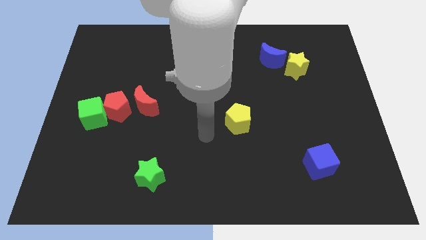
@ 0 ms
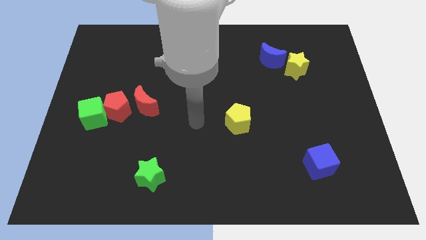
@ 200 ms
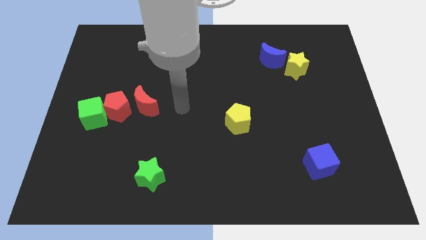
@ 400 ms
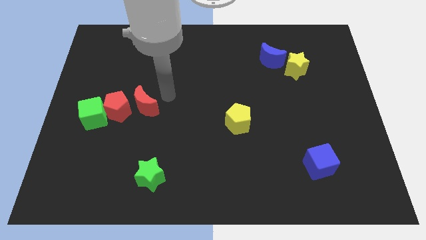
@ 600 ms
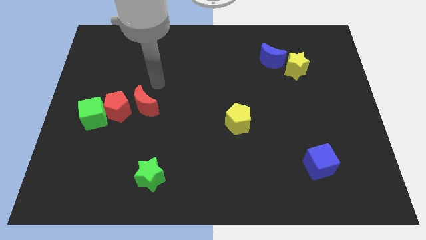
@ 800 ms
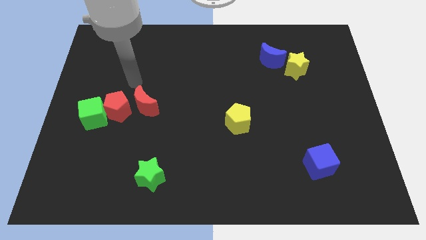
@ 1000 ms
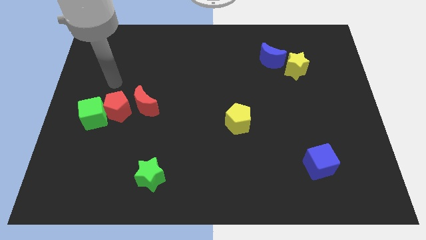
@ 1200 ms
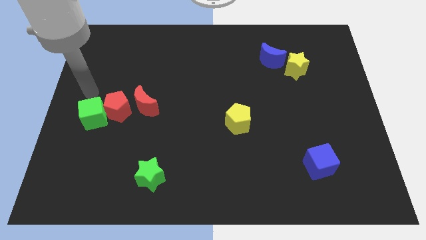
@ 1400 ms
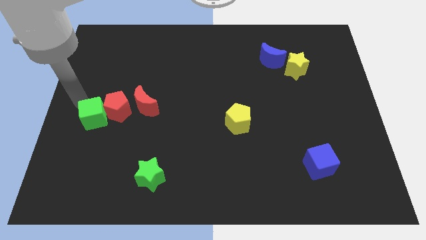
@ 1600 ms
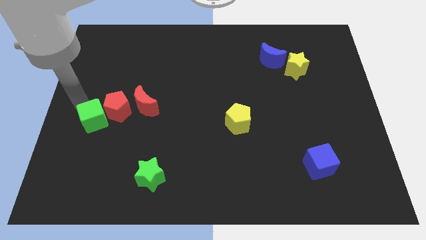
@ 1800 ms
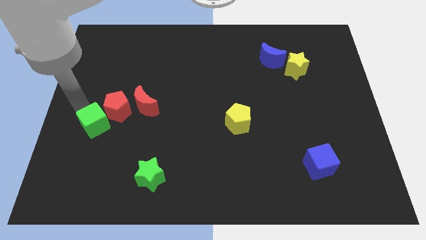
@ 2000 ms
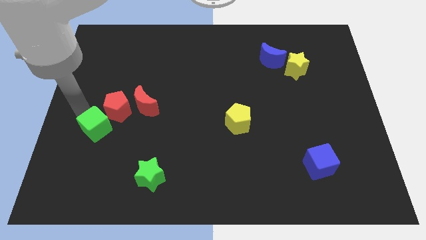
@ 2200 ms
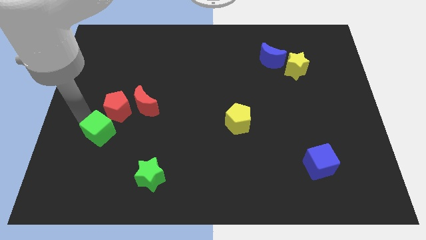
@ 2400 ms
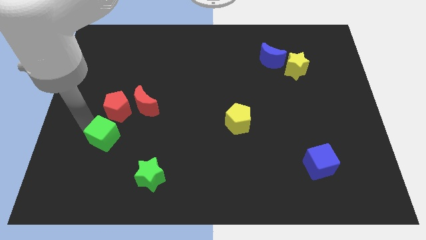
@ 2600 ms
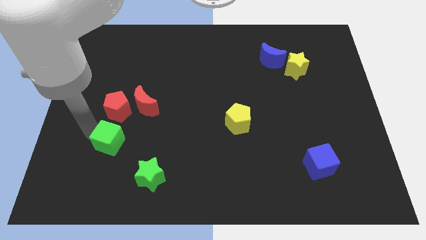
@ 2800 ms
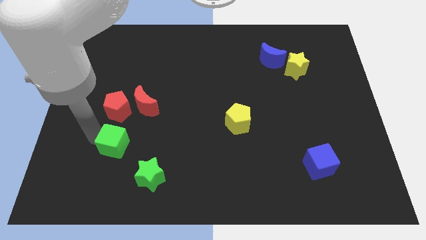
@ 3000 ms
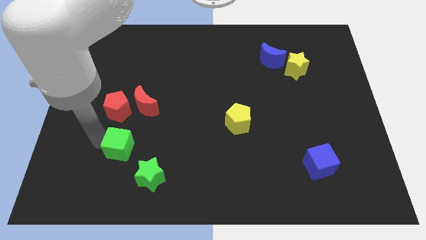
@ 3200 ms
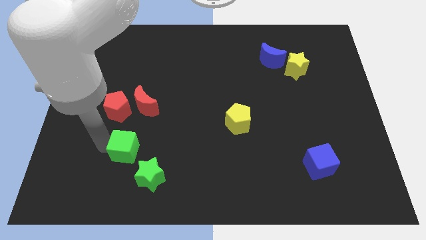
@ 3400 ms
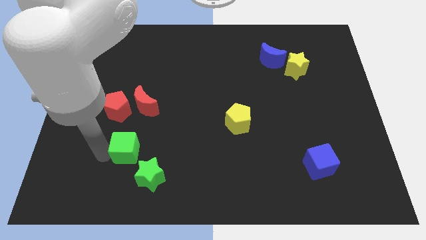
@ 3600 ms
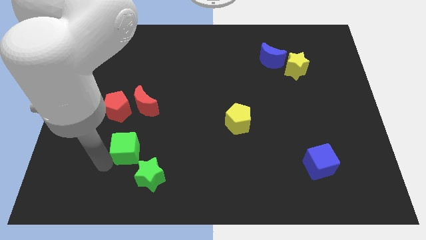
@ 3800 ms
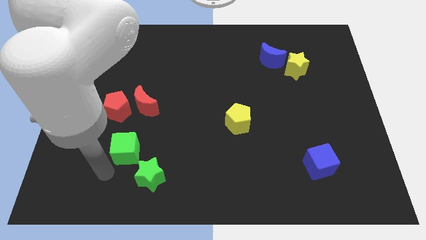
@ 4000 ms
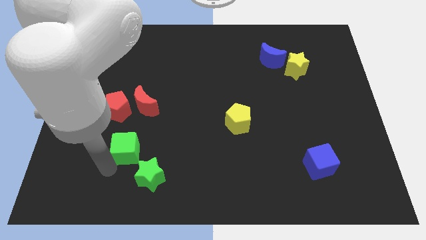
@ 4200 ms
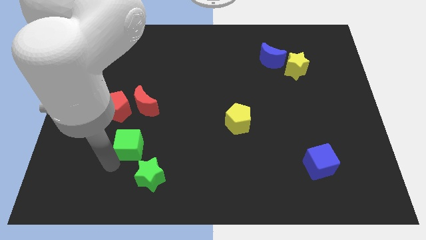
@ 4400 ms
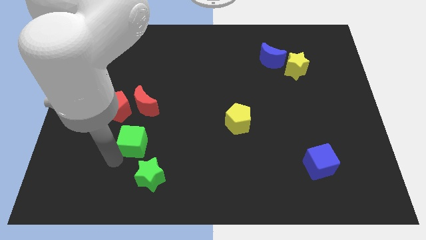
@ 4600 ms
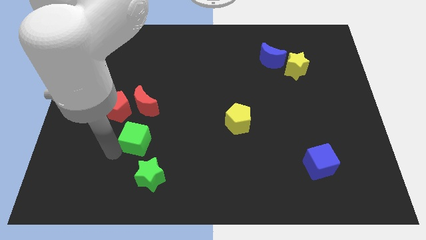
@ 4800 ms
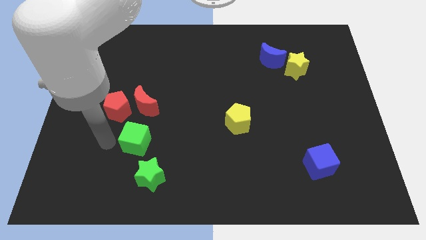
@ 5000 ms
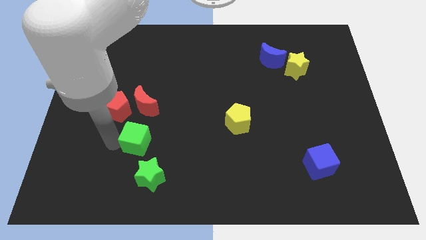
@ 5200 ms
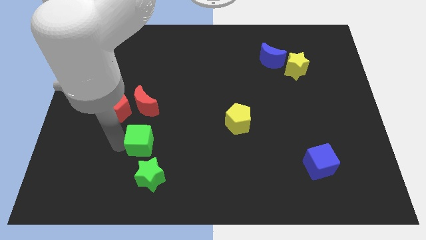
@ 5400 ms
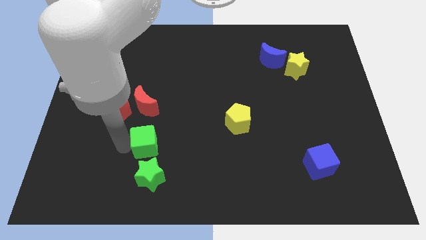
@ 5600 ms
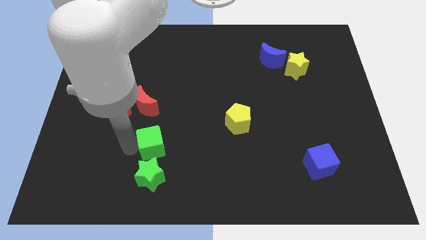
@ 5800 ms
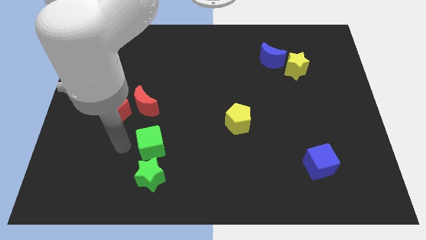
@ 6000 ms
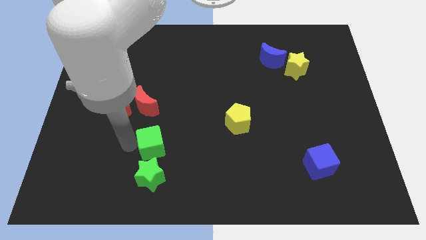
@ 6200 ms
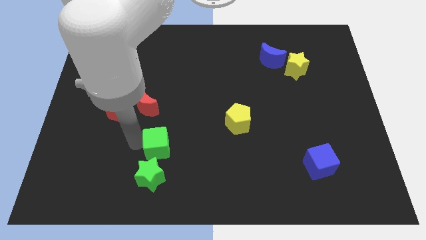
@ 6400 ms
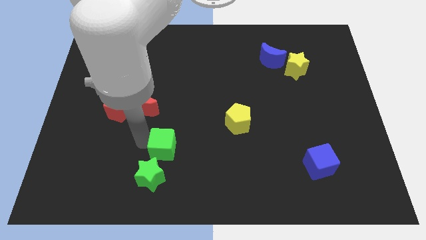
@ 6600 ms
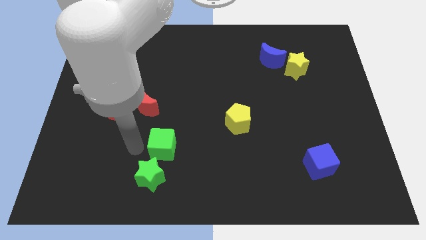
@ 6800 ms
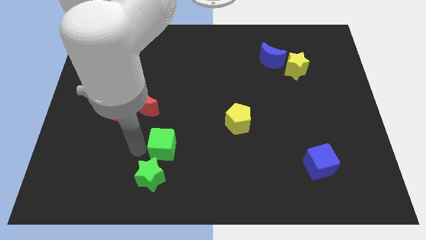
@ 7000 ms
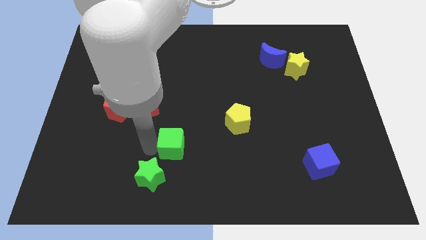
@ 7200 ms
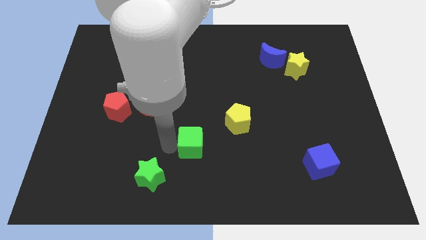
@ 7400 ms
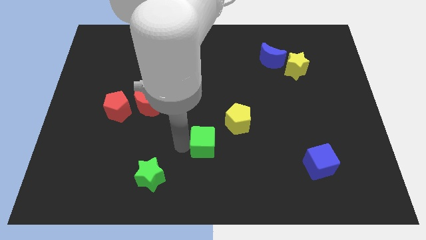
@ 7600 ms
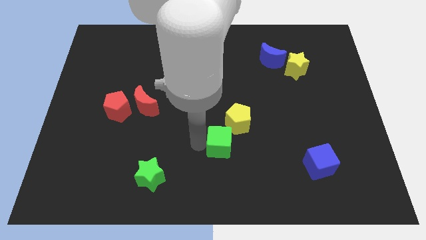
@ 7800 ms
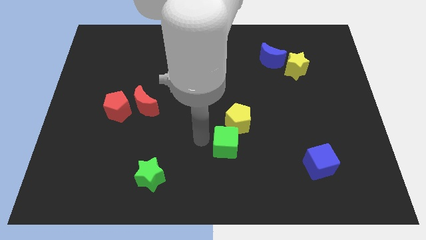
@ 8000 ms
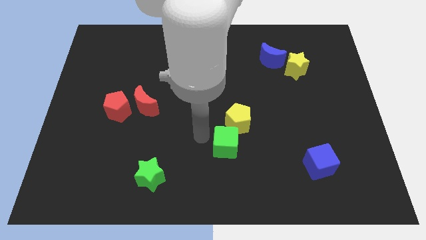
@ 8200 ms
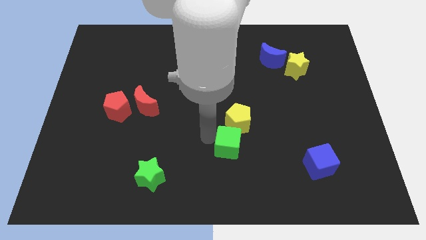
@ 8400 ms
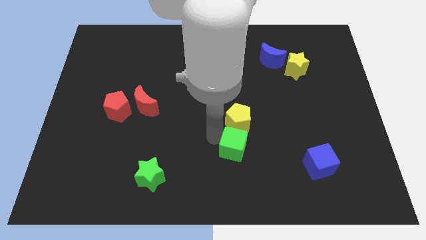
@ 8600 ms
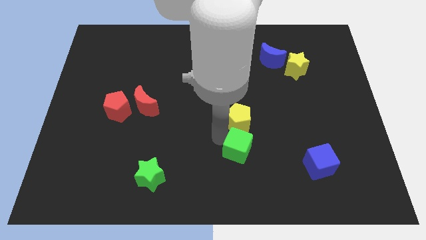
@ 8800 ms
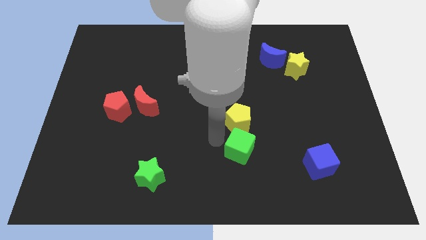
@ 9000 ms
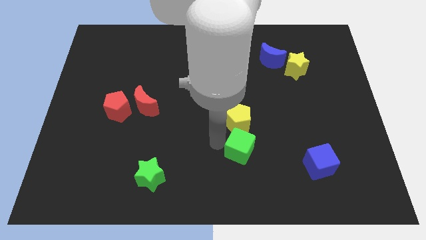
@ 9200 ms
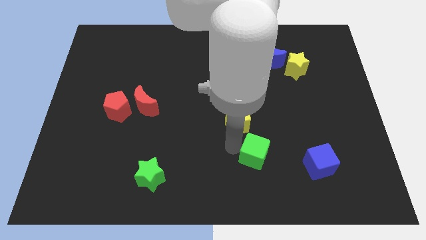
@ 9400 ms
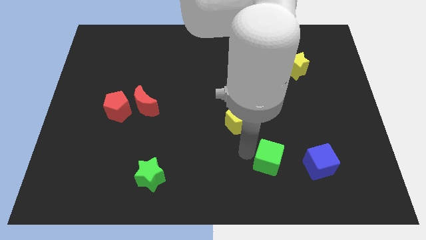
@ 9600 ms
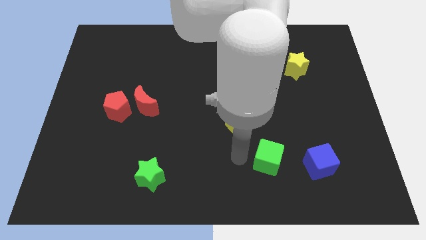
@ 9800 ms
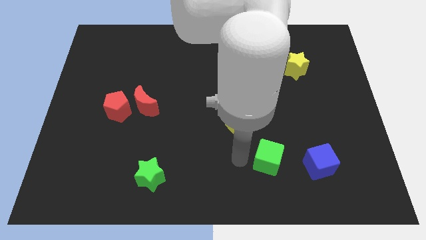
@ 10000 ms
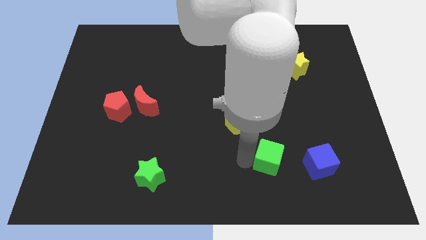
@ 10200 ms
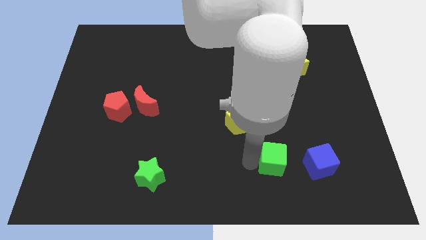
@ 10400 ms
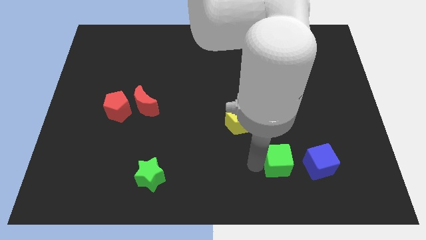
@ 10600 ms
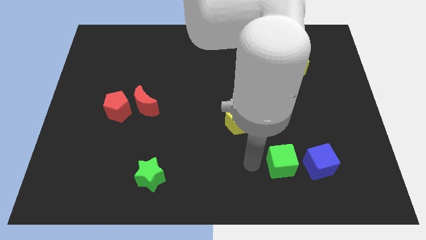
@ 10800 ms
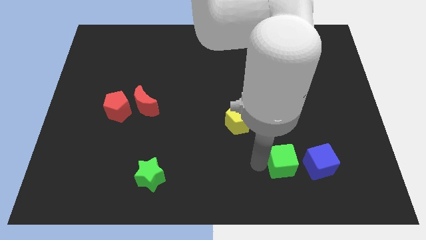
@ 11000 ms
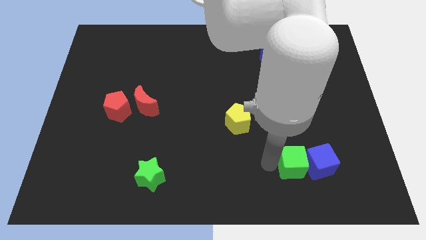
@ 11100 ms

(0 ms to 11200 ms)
move the green cube next to the blue cube
